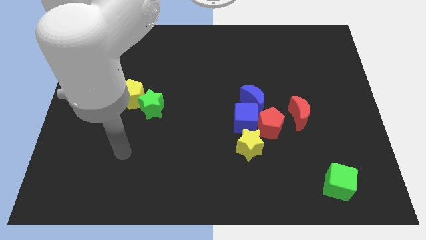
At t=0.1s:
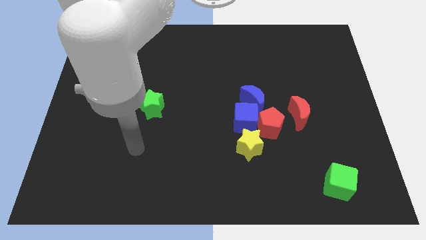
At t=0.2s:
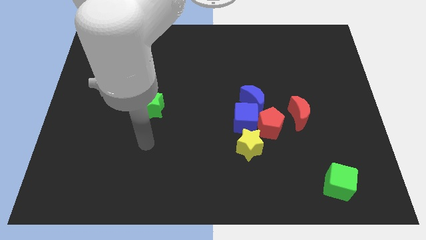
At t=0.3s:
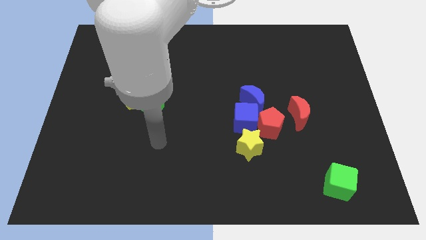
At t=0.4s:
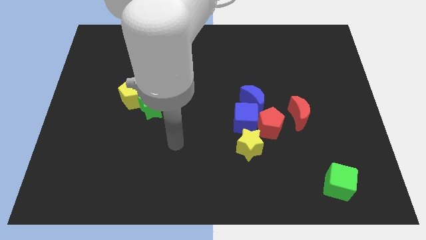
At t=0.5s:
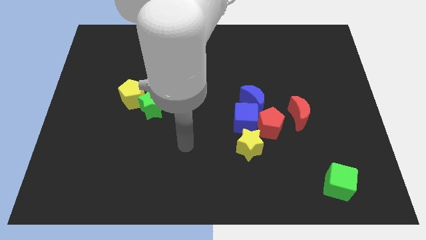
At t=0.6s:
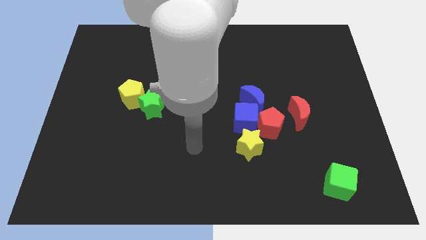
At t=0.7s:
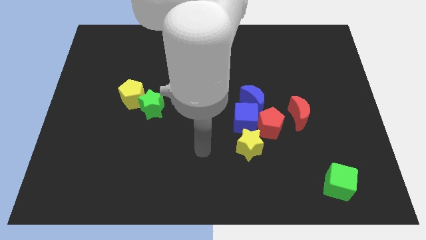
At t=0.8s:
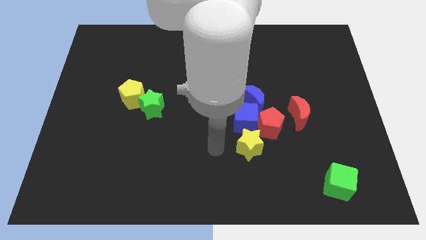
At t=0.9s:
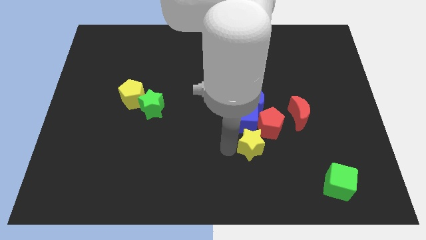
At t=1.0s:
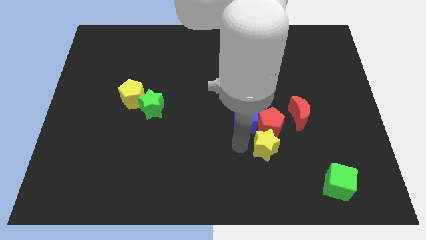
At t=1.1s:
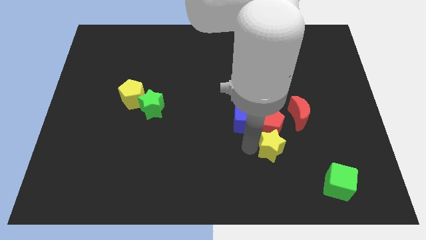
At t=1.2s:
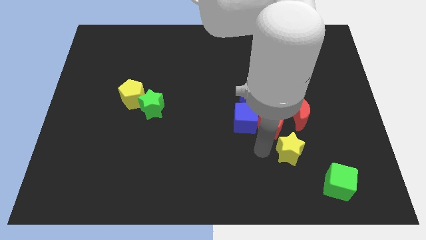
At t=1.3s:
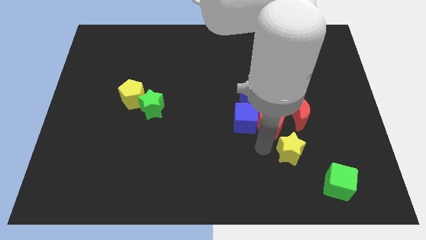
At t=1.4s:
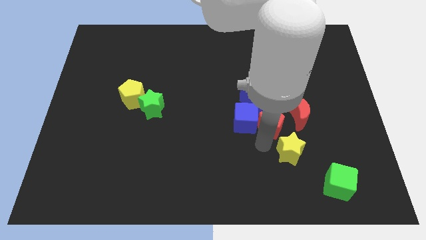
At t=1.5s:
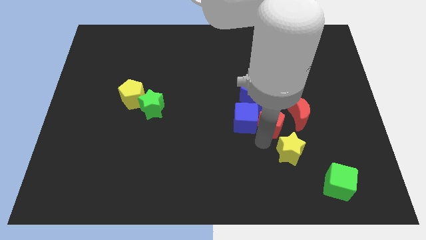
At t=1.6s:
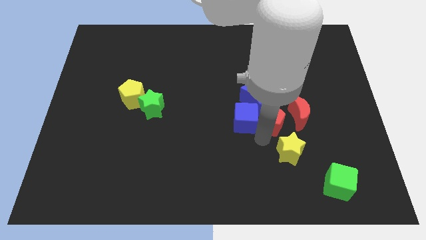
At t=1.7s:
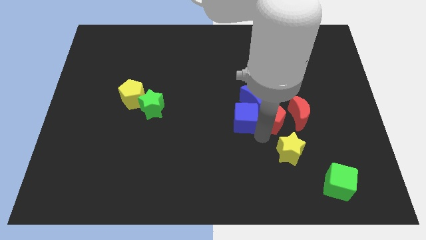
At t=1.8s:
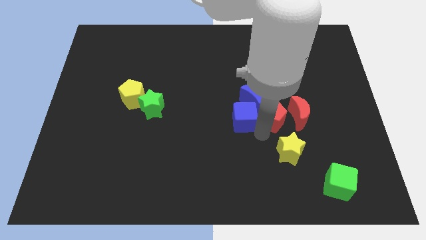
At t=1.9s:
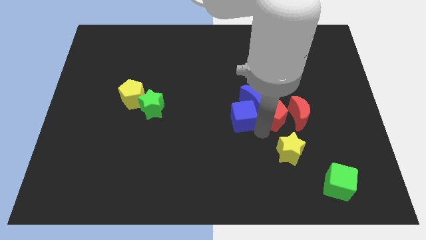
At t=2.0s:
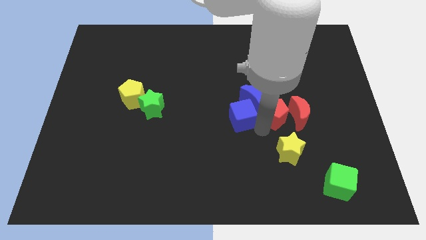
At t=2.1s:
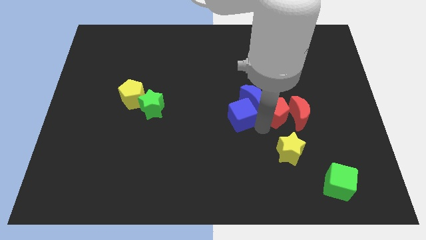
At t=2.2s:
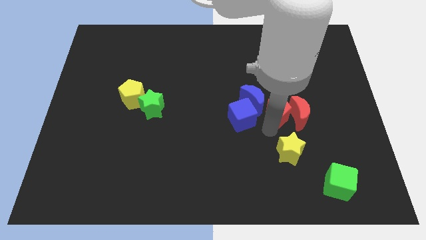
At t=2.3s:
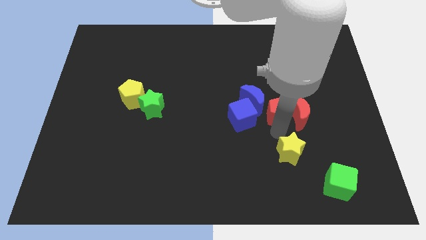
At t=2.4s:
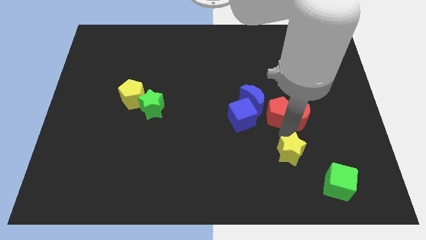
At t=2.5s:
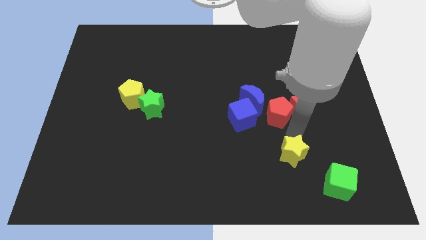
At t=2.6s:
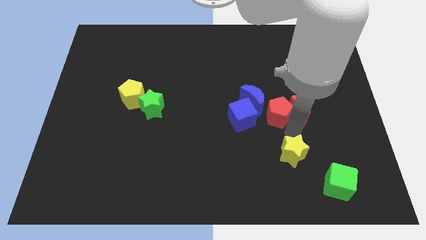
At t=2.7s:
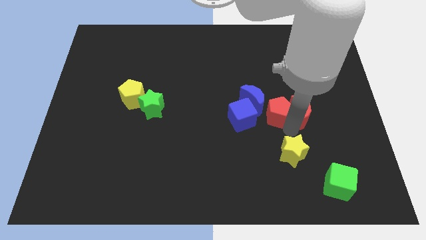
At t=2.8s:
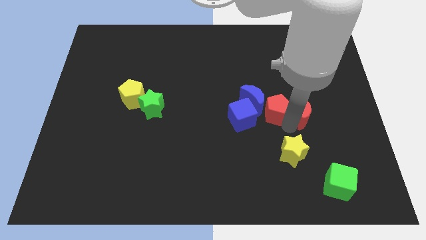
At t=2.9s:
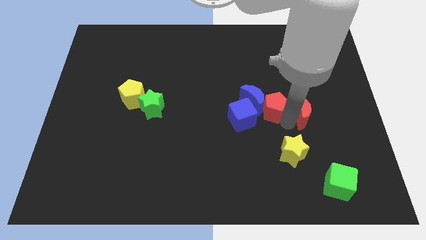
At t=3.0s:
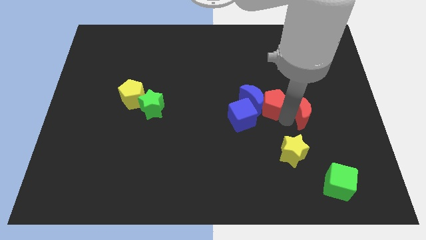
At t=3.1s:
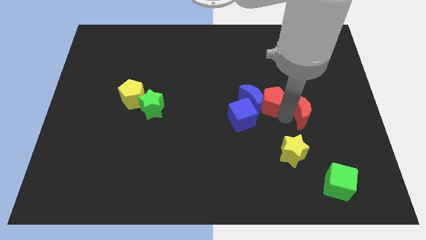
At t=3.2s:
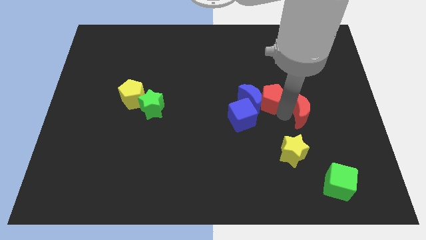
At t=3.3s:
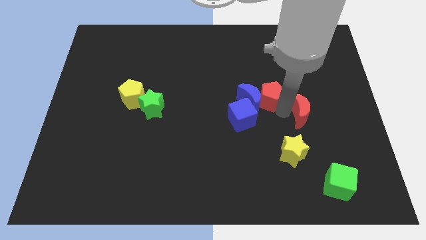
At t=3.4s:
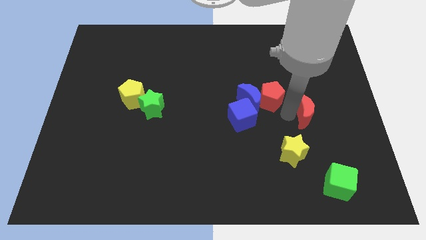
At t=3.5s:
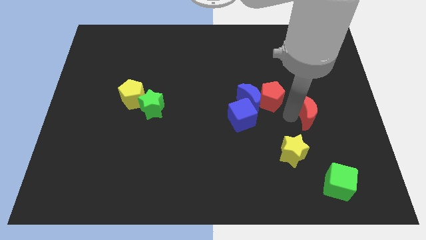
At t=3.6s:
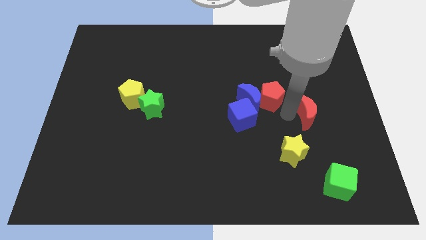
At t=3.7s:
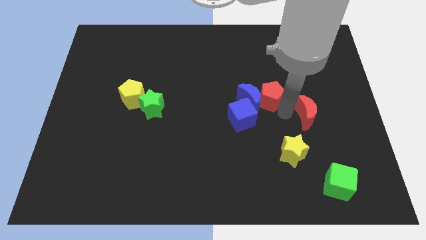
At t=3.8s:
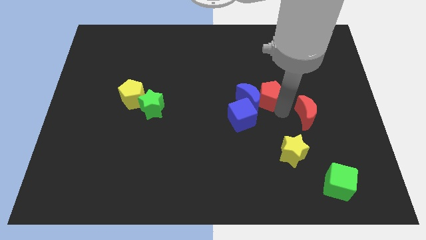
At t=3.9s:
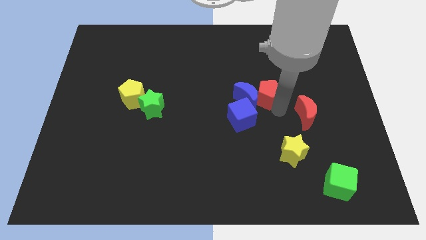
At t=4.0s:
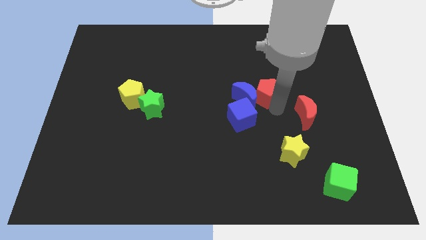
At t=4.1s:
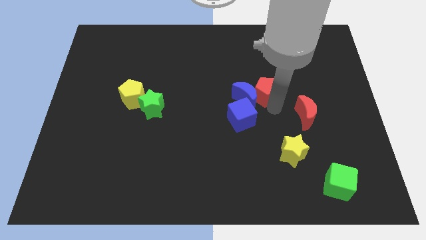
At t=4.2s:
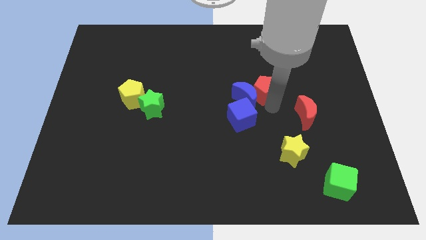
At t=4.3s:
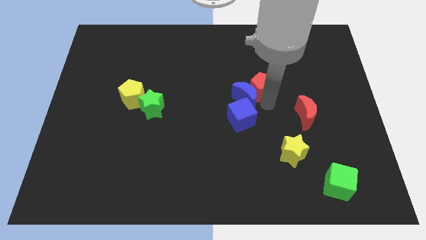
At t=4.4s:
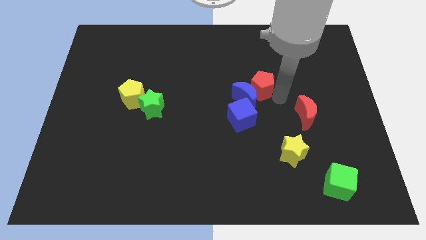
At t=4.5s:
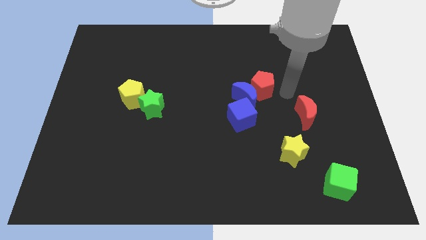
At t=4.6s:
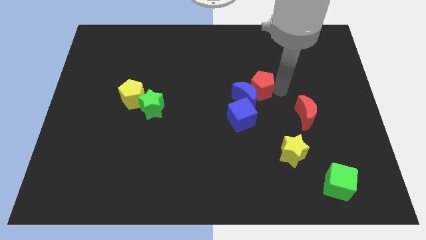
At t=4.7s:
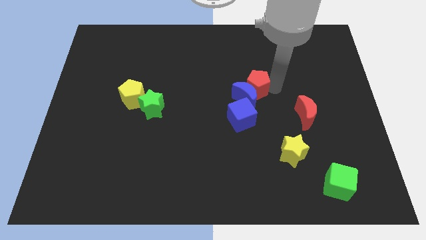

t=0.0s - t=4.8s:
push the red pentagon a little up and then left

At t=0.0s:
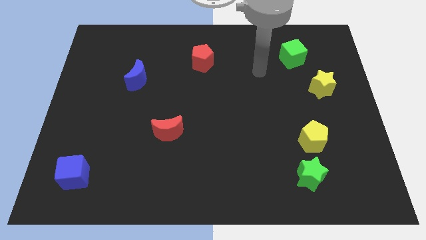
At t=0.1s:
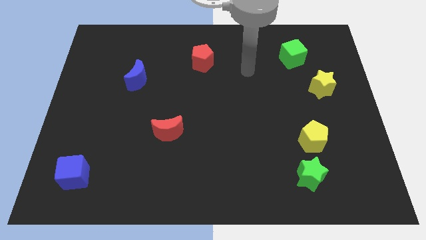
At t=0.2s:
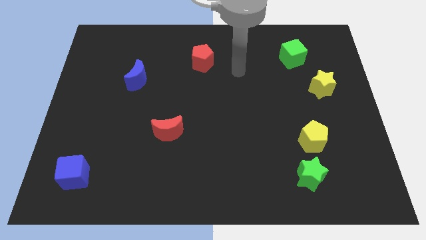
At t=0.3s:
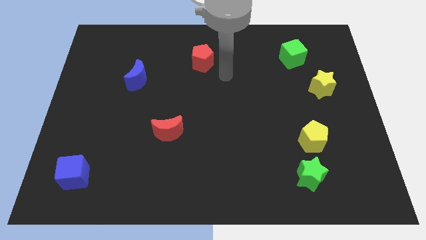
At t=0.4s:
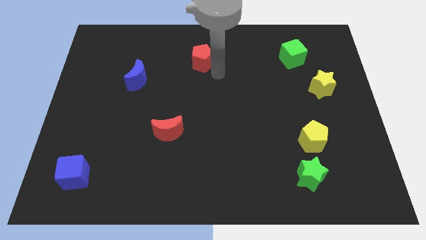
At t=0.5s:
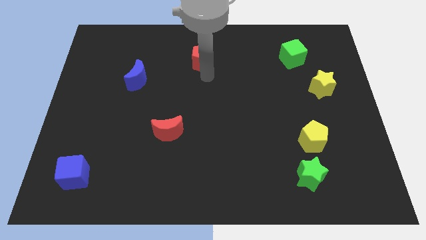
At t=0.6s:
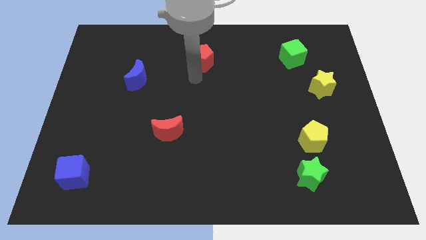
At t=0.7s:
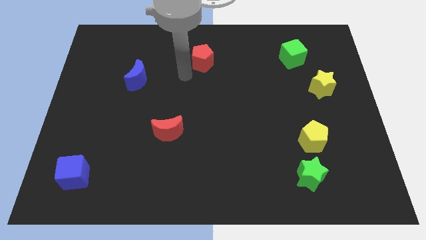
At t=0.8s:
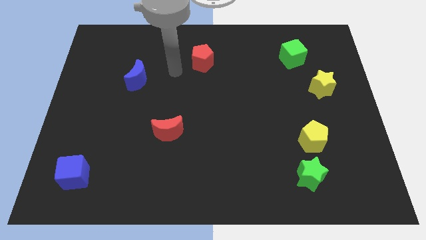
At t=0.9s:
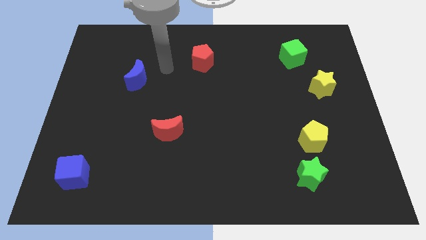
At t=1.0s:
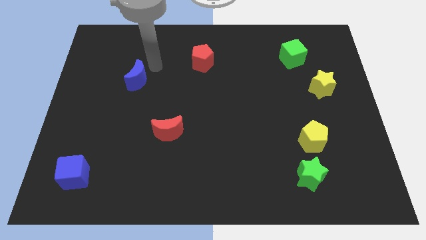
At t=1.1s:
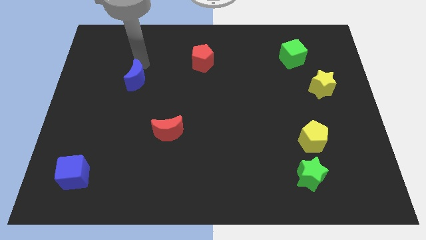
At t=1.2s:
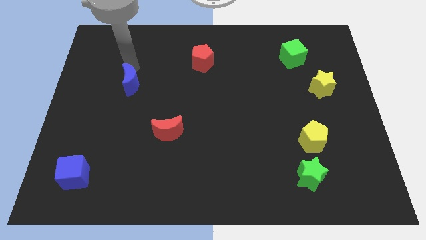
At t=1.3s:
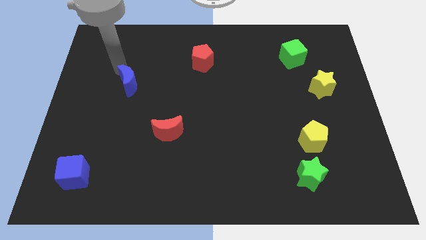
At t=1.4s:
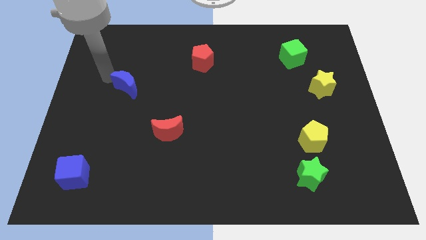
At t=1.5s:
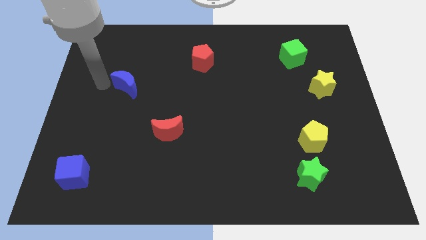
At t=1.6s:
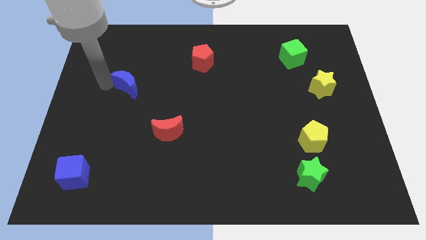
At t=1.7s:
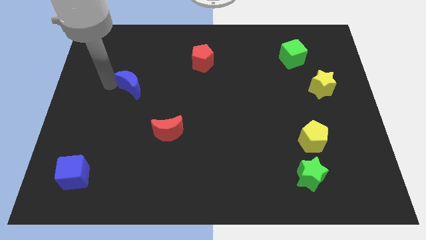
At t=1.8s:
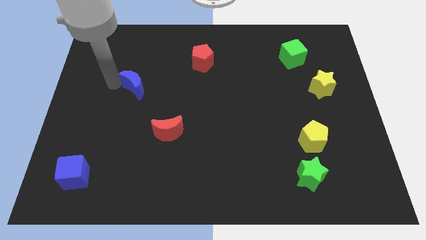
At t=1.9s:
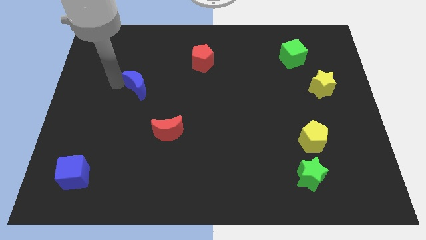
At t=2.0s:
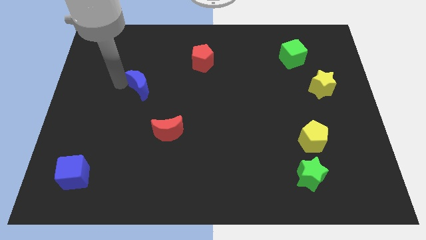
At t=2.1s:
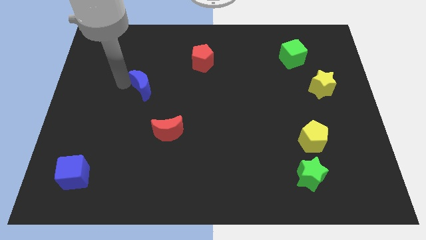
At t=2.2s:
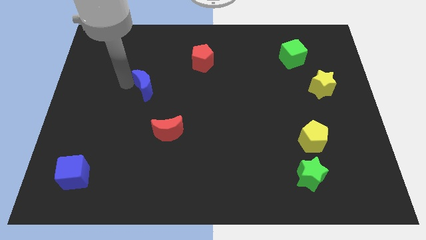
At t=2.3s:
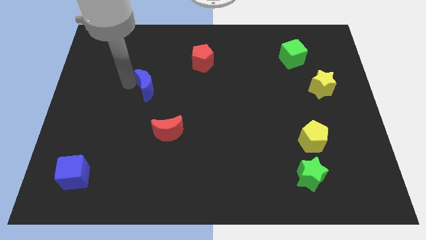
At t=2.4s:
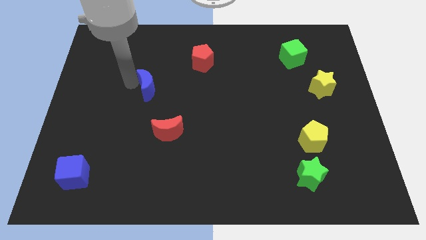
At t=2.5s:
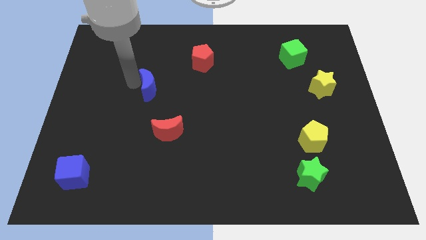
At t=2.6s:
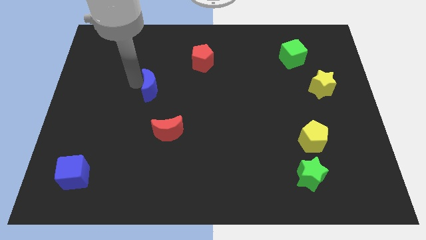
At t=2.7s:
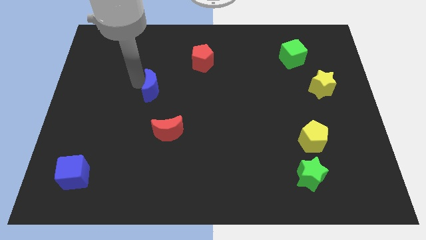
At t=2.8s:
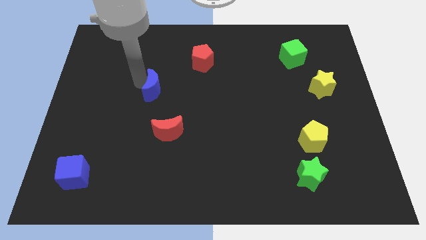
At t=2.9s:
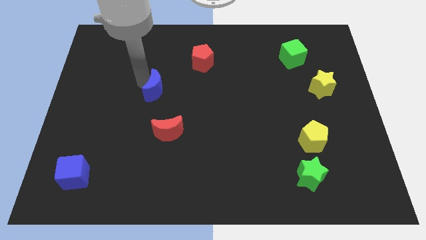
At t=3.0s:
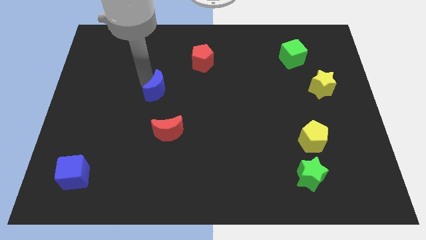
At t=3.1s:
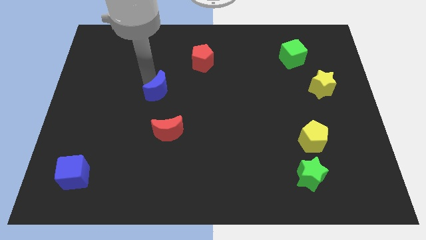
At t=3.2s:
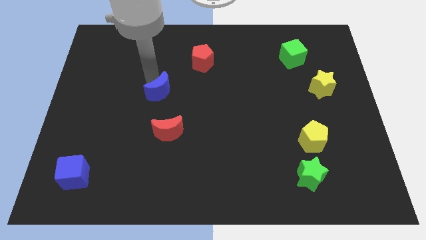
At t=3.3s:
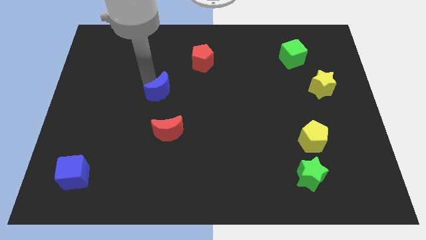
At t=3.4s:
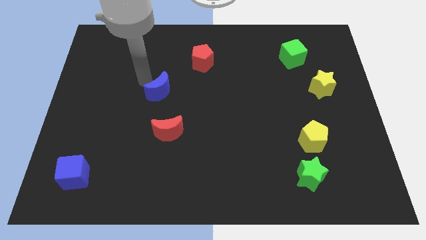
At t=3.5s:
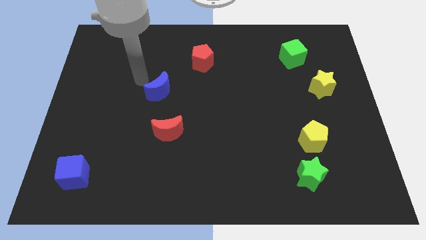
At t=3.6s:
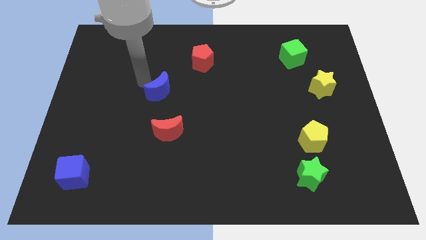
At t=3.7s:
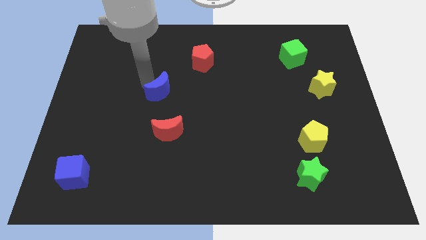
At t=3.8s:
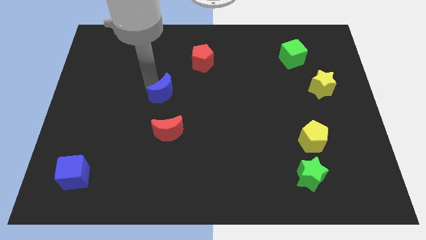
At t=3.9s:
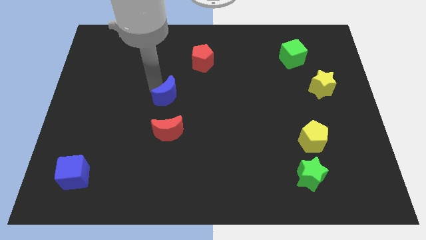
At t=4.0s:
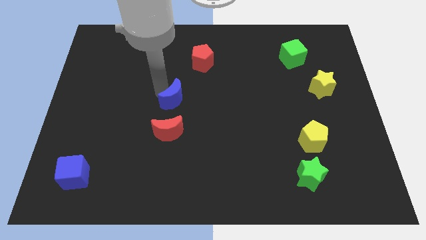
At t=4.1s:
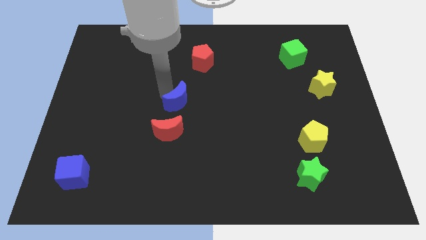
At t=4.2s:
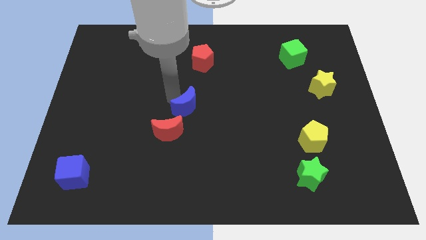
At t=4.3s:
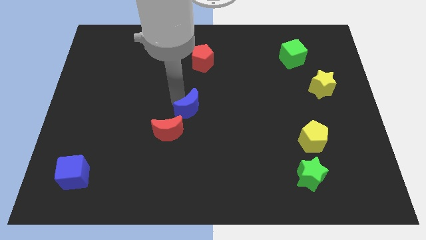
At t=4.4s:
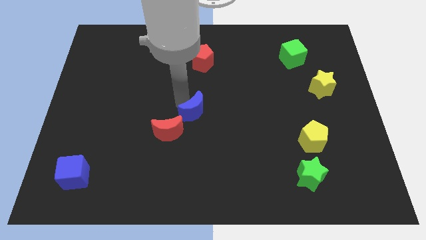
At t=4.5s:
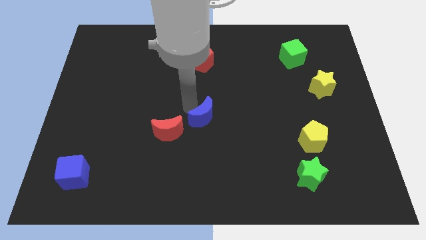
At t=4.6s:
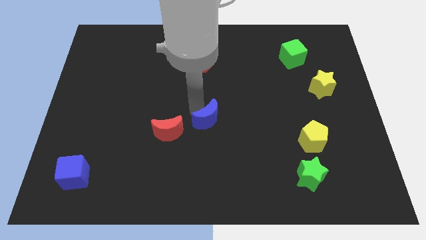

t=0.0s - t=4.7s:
push the blue moon downwards and then to the right
